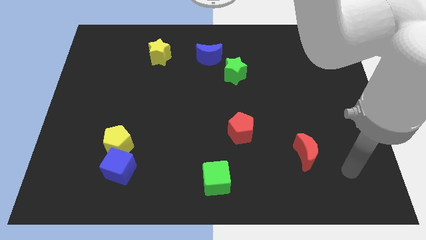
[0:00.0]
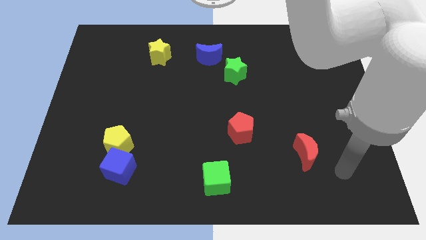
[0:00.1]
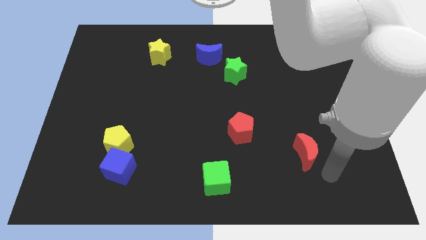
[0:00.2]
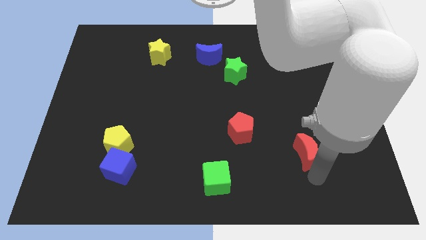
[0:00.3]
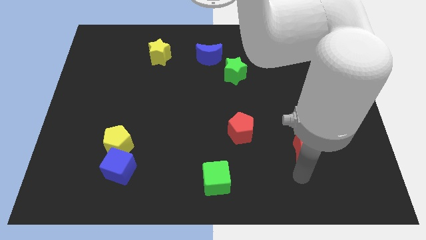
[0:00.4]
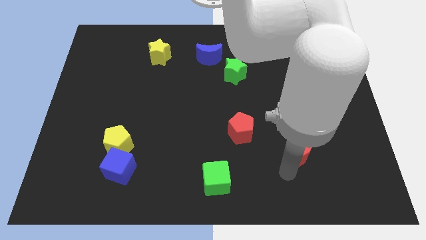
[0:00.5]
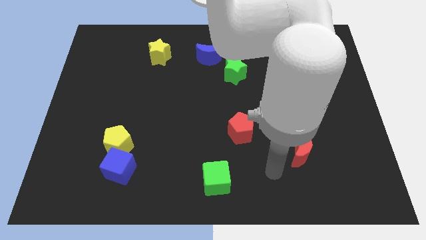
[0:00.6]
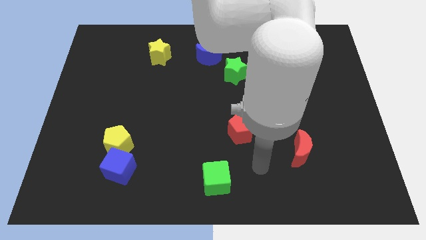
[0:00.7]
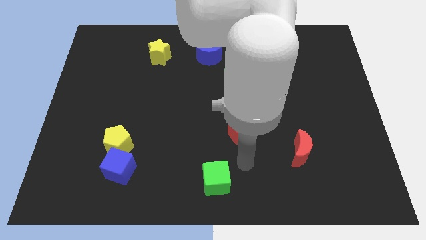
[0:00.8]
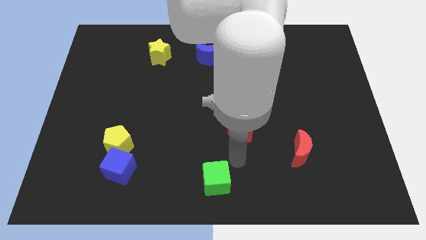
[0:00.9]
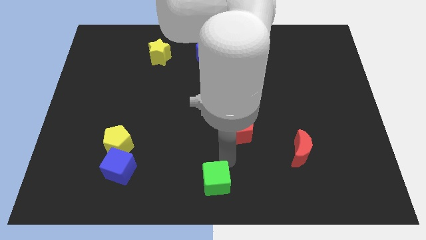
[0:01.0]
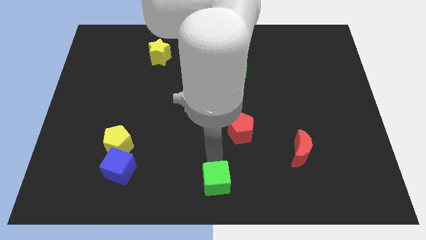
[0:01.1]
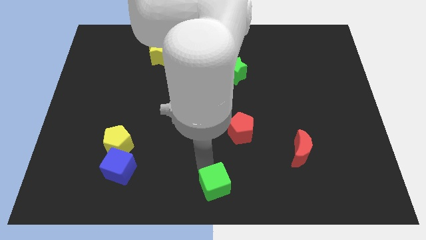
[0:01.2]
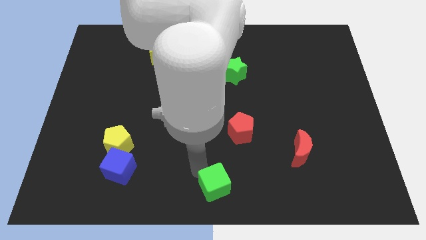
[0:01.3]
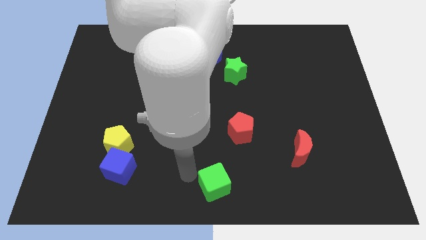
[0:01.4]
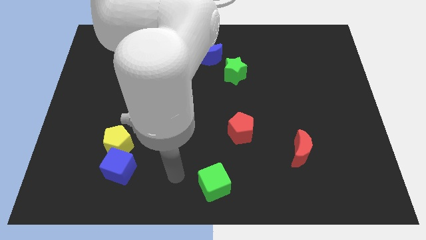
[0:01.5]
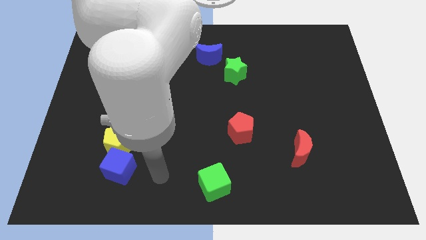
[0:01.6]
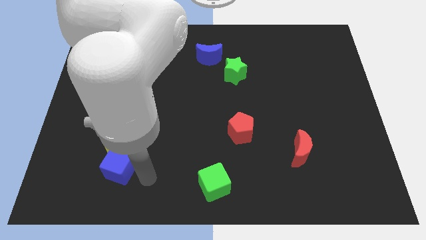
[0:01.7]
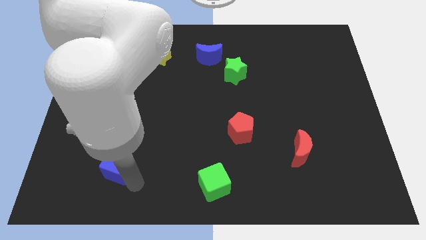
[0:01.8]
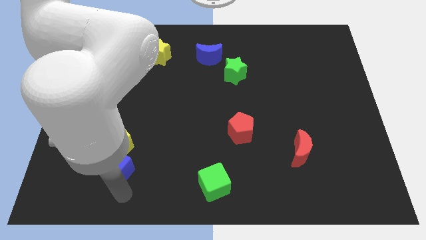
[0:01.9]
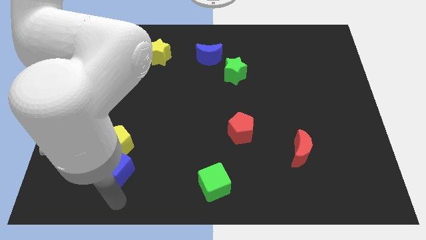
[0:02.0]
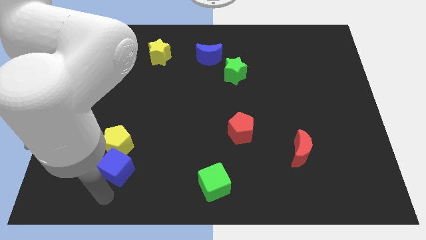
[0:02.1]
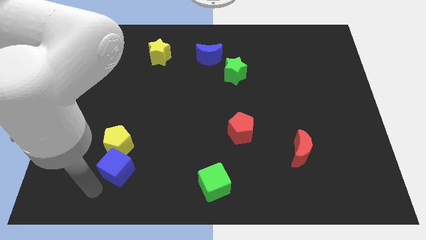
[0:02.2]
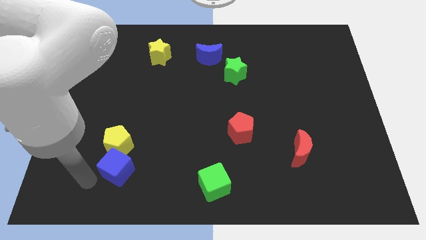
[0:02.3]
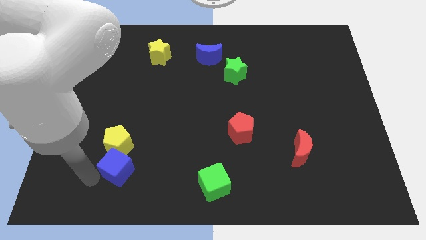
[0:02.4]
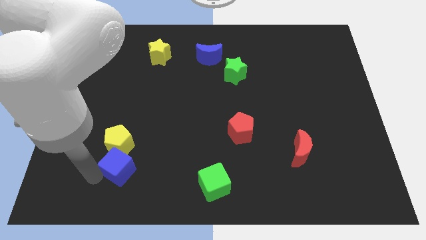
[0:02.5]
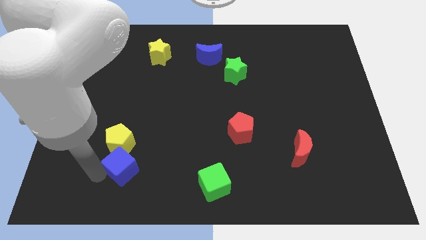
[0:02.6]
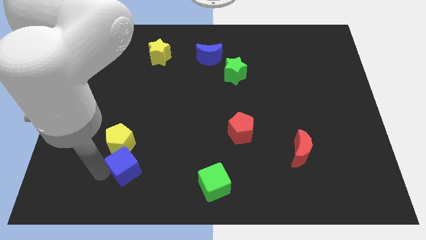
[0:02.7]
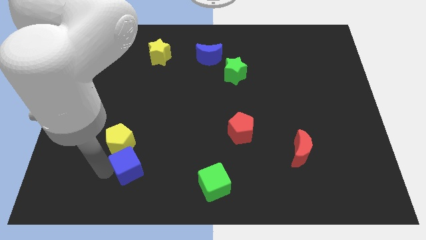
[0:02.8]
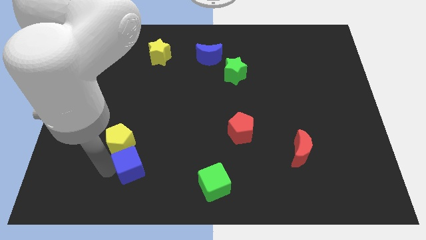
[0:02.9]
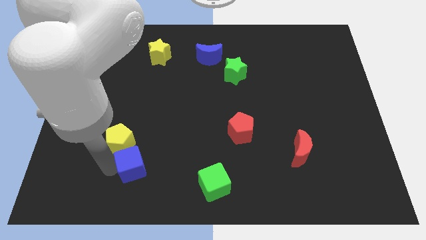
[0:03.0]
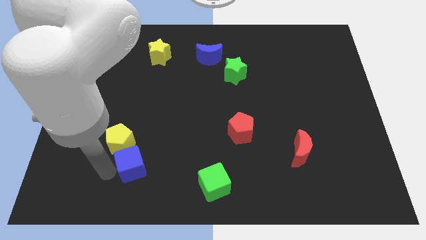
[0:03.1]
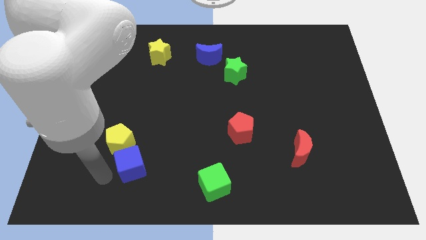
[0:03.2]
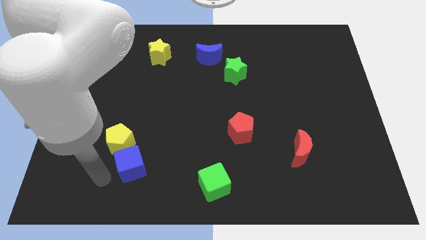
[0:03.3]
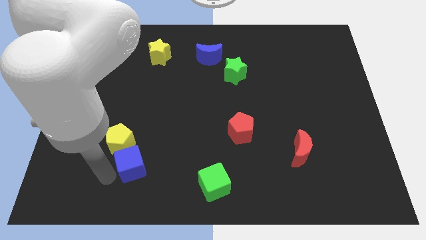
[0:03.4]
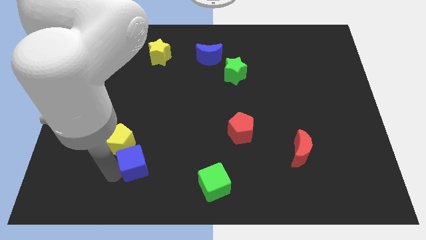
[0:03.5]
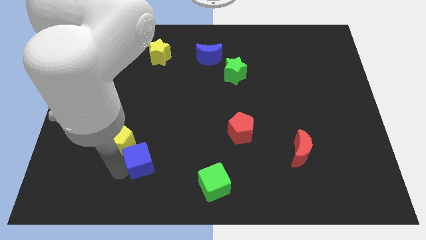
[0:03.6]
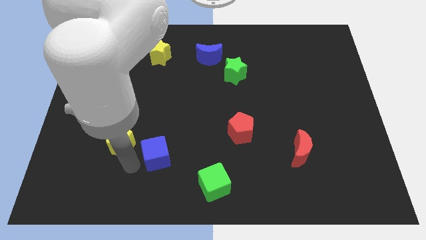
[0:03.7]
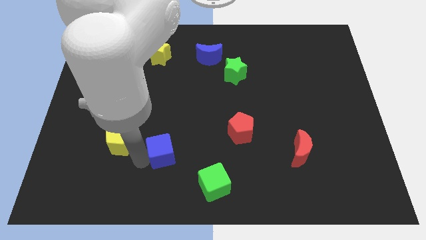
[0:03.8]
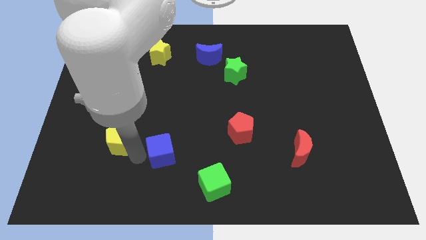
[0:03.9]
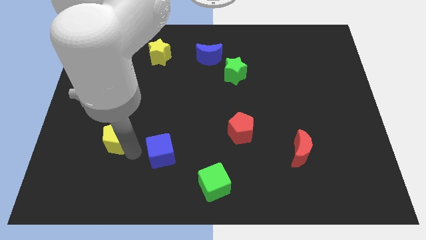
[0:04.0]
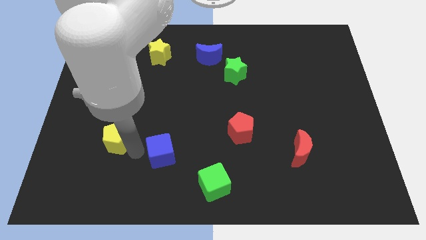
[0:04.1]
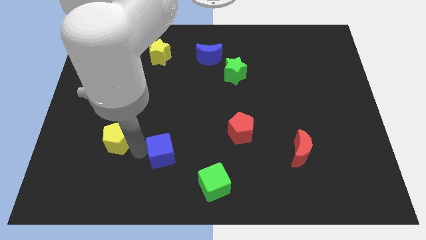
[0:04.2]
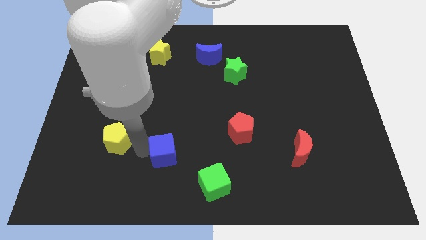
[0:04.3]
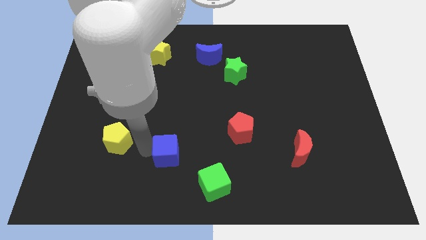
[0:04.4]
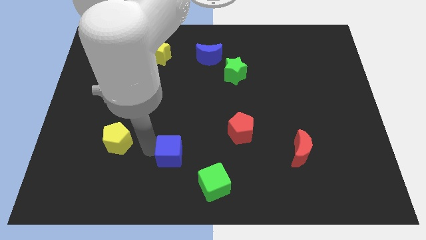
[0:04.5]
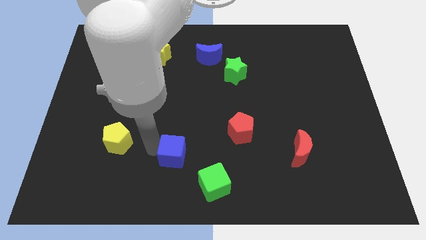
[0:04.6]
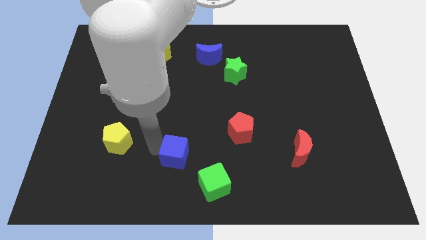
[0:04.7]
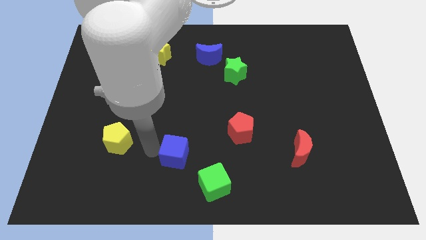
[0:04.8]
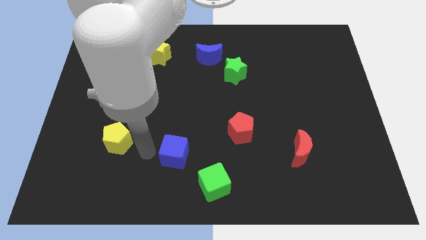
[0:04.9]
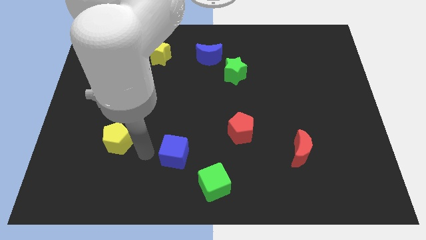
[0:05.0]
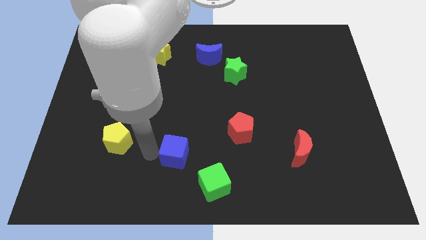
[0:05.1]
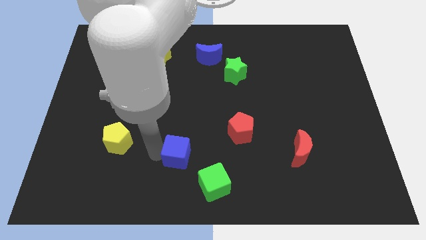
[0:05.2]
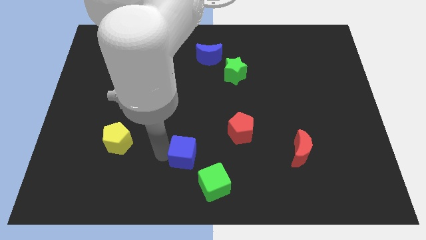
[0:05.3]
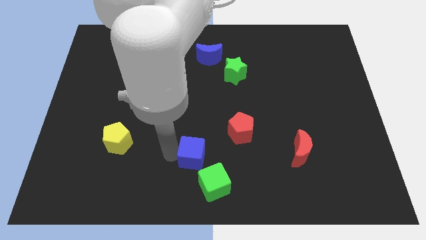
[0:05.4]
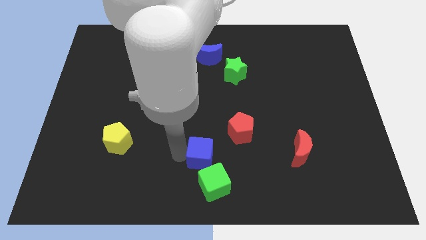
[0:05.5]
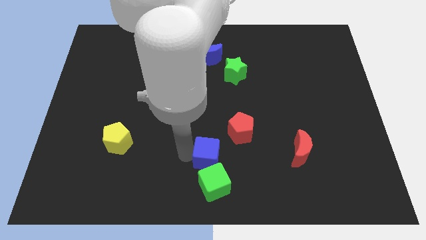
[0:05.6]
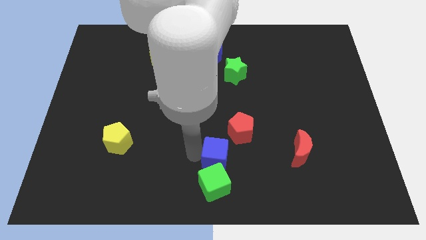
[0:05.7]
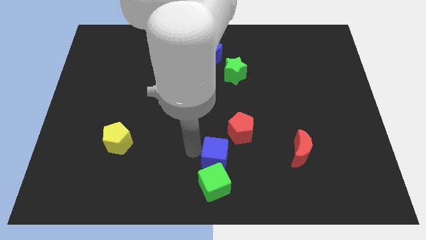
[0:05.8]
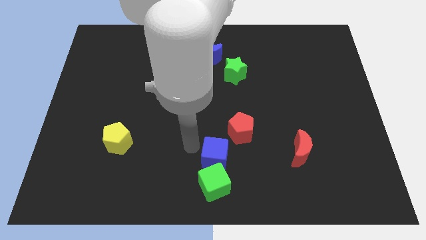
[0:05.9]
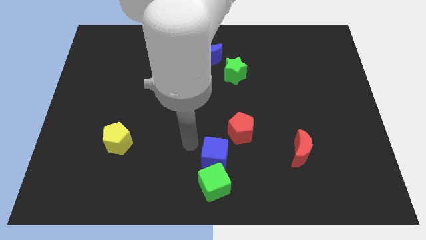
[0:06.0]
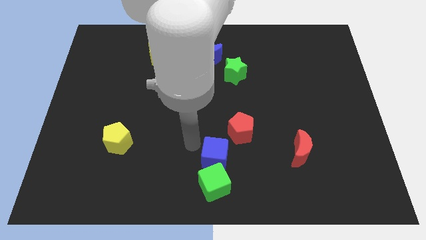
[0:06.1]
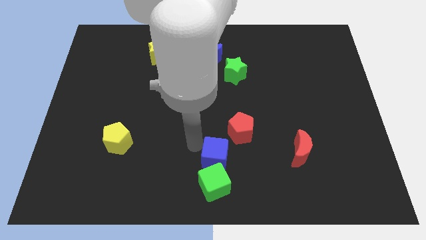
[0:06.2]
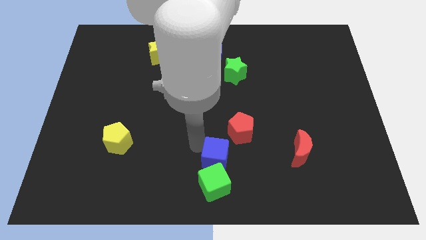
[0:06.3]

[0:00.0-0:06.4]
push the blue cube right

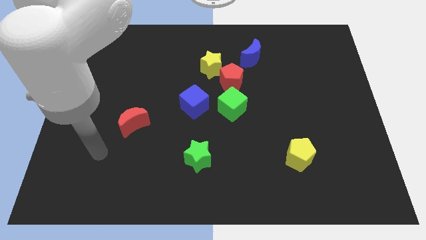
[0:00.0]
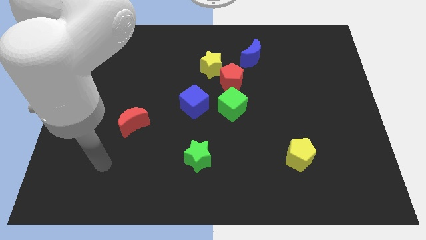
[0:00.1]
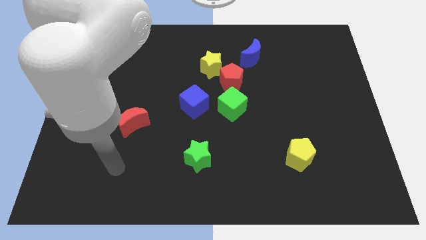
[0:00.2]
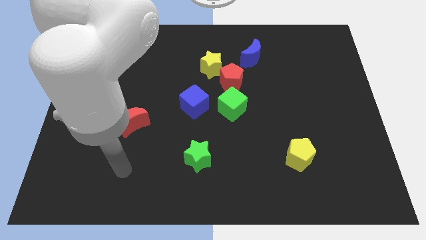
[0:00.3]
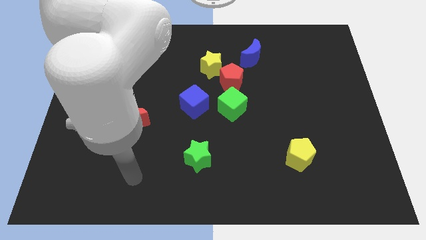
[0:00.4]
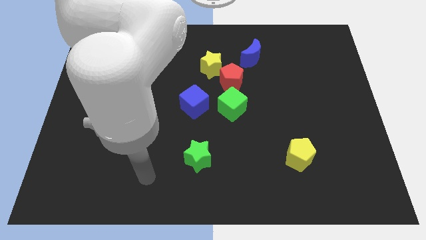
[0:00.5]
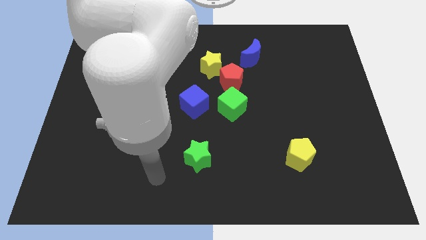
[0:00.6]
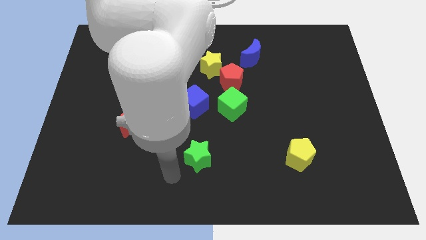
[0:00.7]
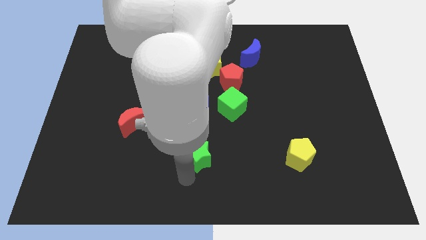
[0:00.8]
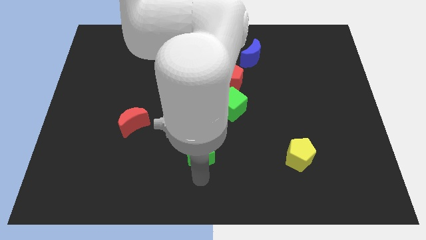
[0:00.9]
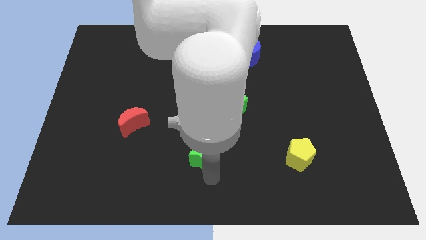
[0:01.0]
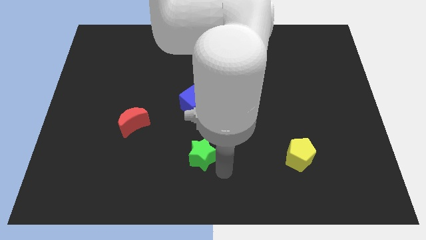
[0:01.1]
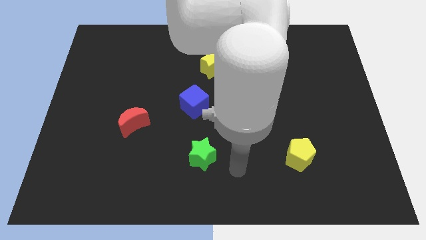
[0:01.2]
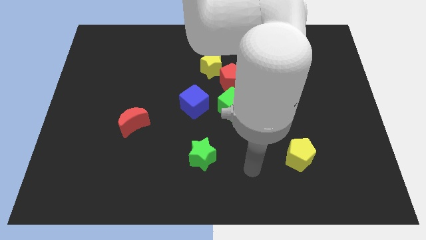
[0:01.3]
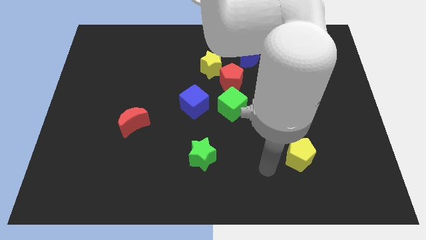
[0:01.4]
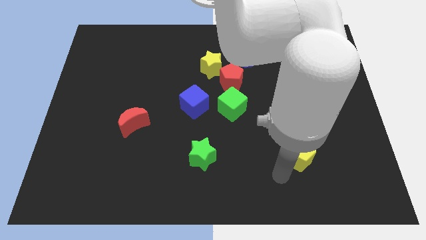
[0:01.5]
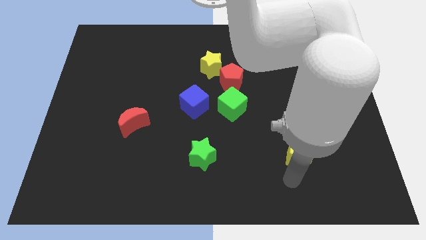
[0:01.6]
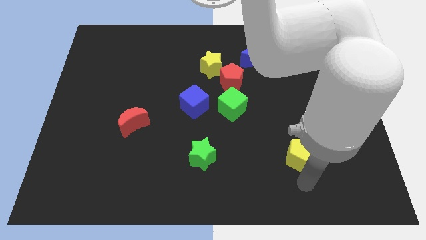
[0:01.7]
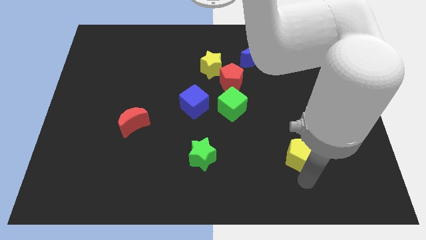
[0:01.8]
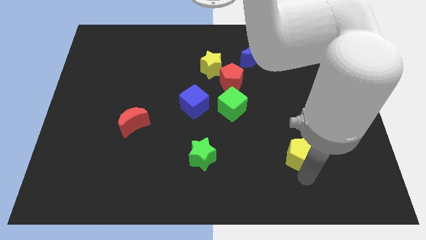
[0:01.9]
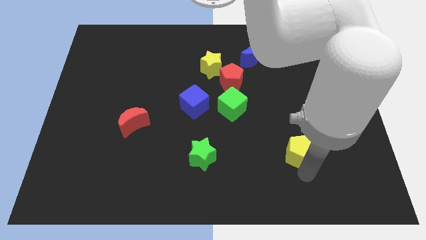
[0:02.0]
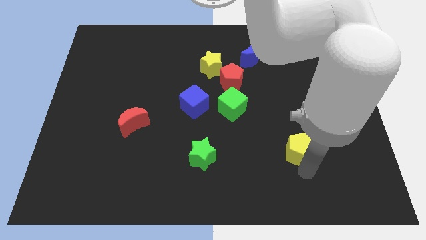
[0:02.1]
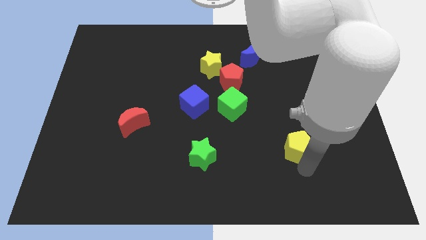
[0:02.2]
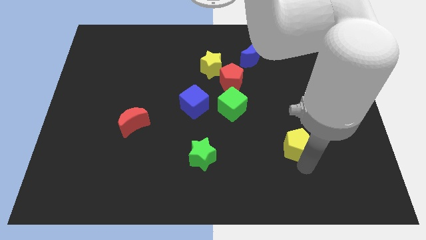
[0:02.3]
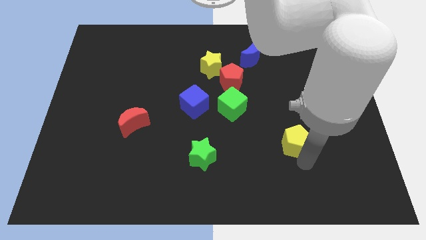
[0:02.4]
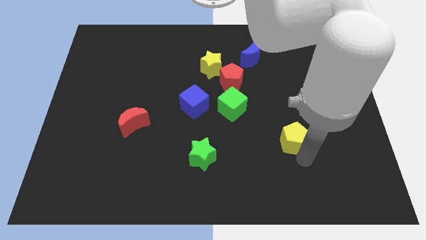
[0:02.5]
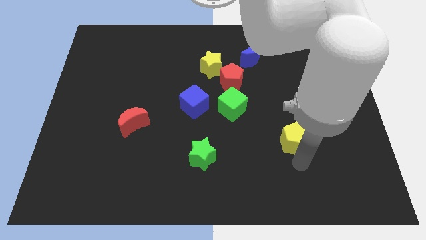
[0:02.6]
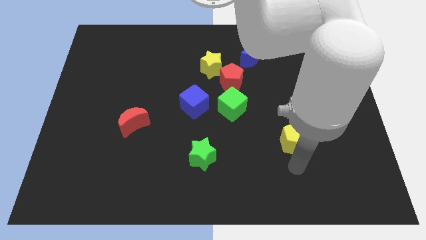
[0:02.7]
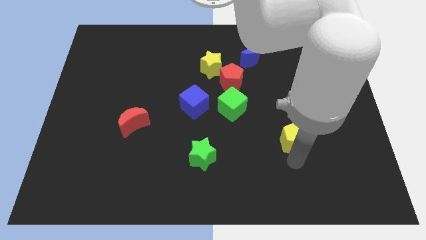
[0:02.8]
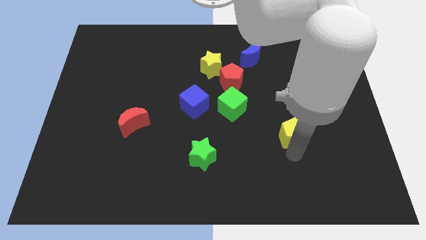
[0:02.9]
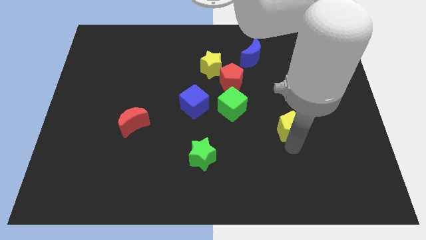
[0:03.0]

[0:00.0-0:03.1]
slightly move the yellow pentagon upwards
